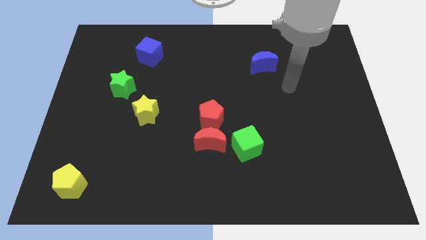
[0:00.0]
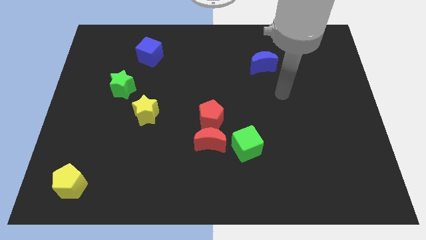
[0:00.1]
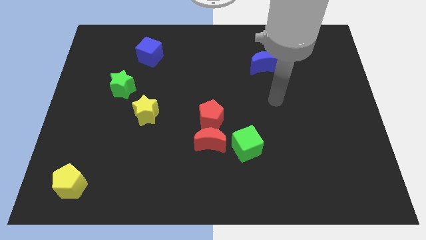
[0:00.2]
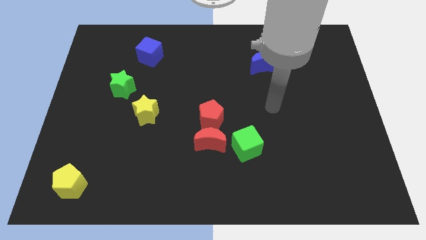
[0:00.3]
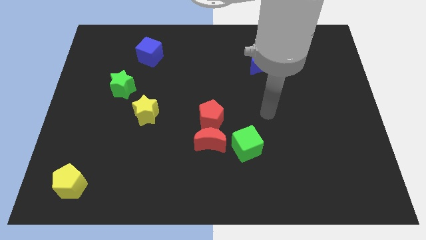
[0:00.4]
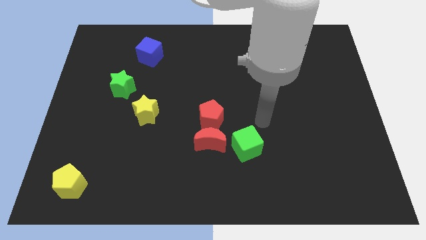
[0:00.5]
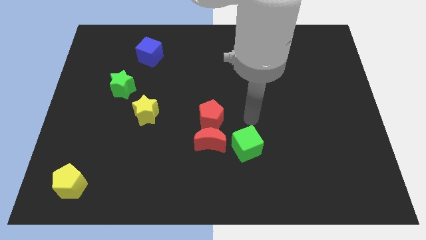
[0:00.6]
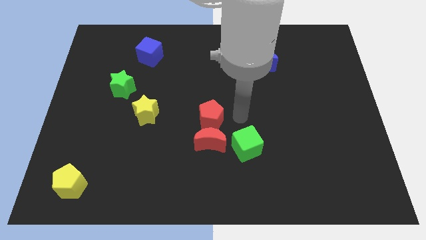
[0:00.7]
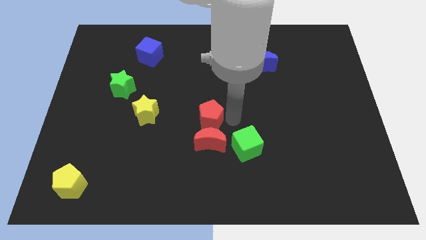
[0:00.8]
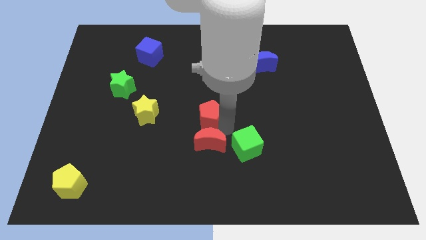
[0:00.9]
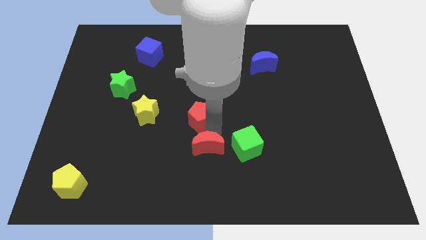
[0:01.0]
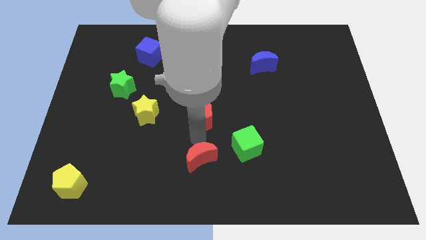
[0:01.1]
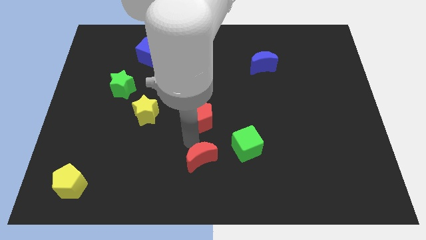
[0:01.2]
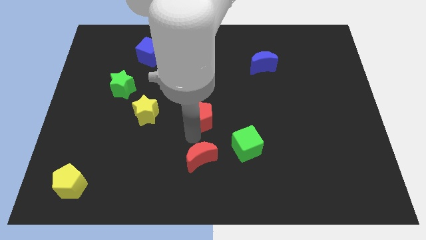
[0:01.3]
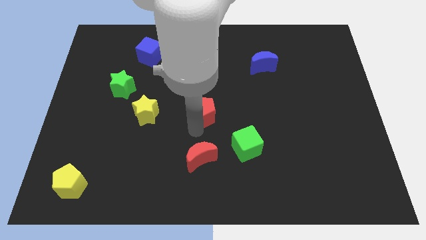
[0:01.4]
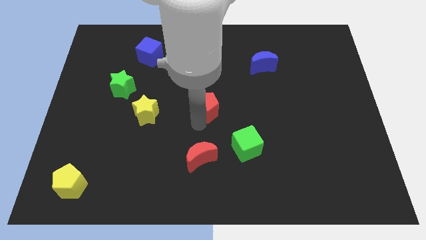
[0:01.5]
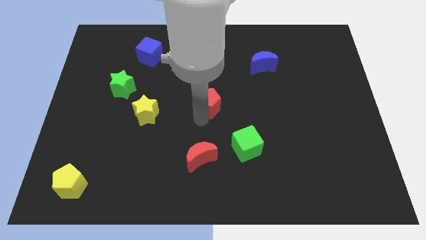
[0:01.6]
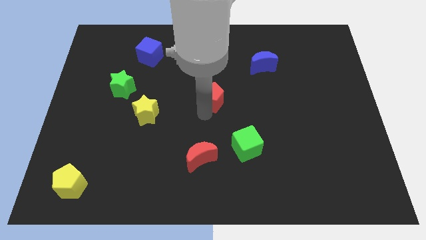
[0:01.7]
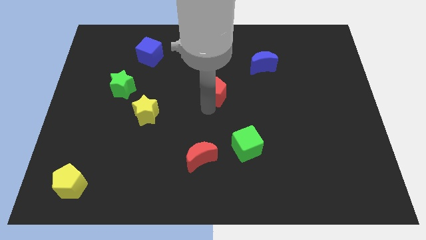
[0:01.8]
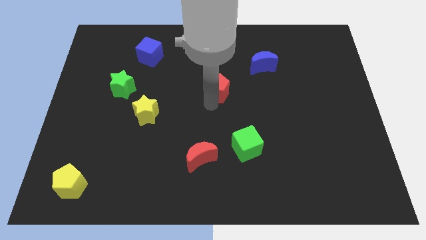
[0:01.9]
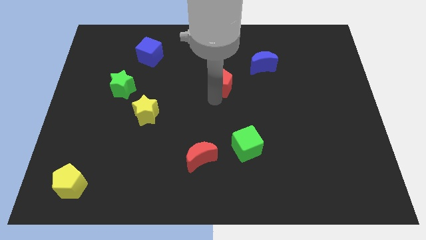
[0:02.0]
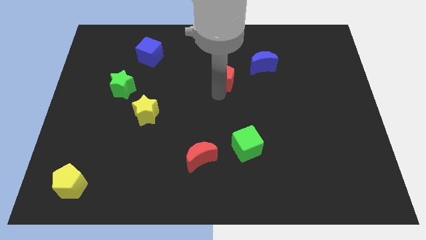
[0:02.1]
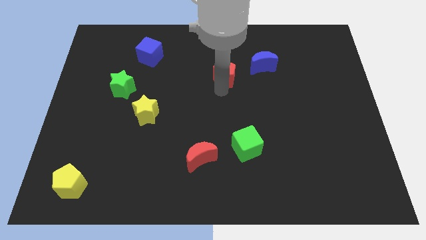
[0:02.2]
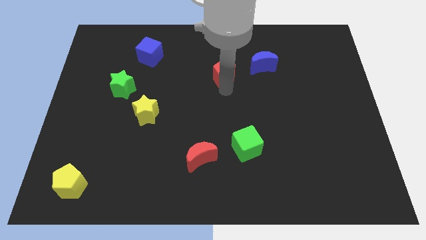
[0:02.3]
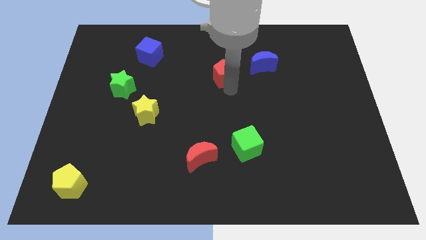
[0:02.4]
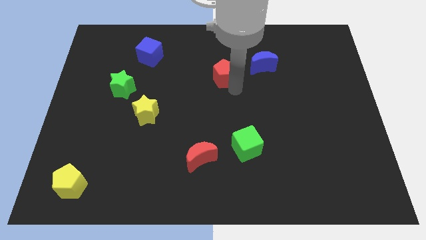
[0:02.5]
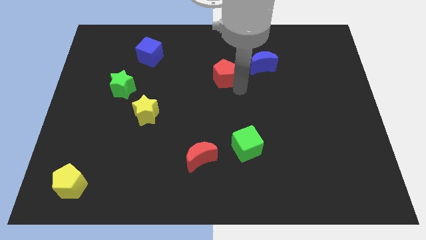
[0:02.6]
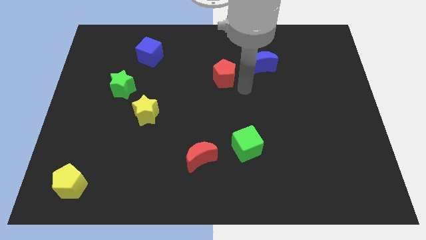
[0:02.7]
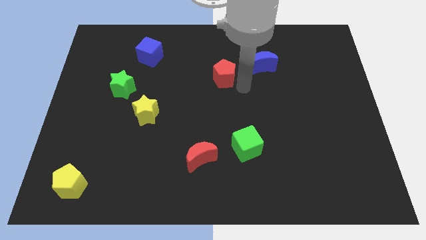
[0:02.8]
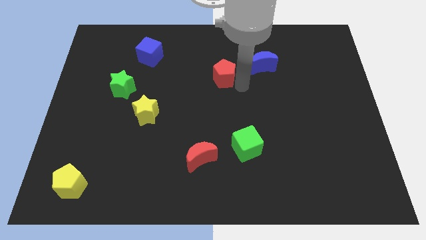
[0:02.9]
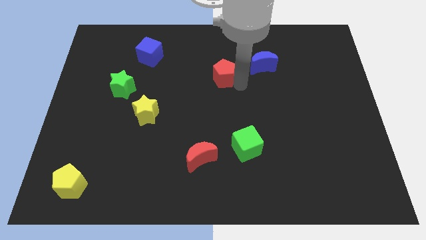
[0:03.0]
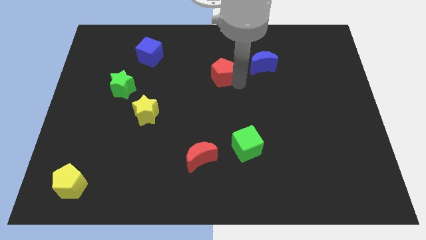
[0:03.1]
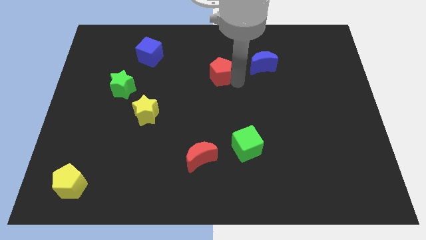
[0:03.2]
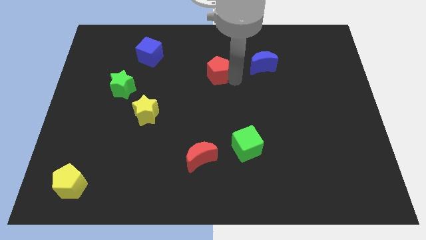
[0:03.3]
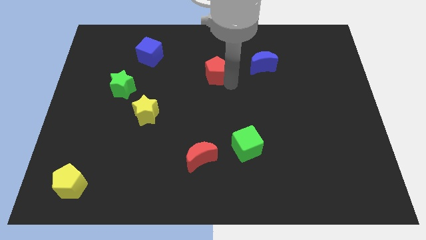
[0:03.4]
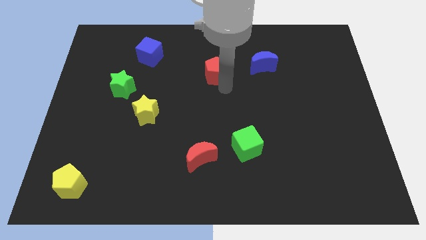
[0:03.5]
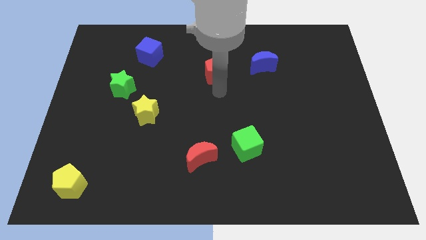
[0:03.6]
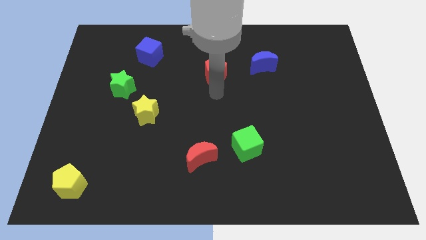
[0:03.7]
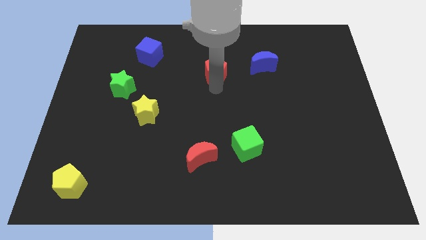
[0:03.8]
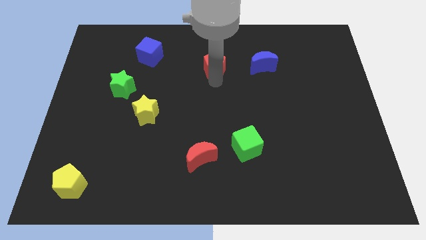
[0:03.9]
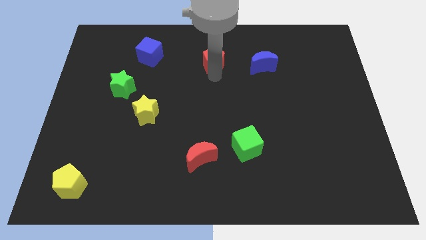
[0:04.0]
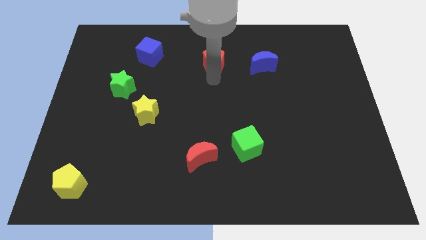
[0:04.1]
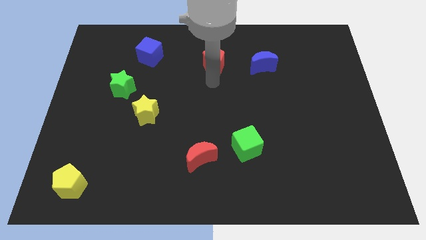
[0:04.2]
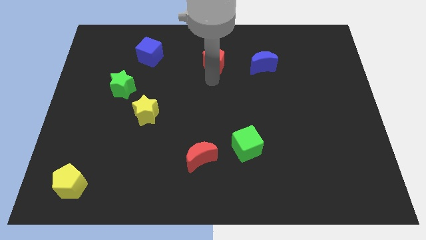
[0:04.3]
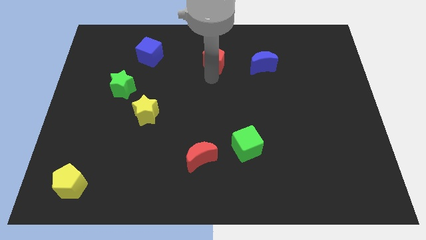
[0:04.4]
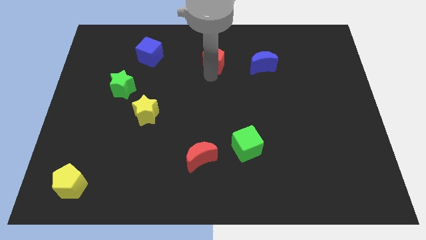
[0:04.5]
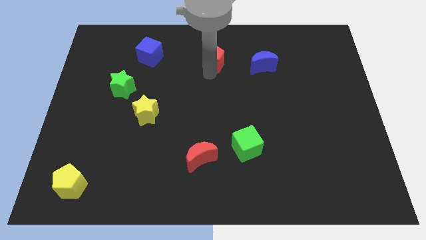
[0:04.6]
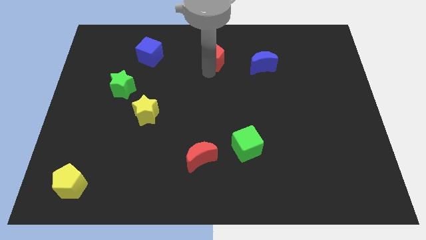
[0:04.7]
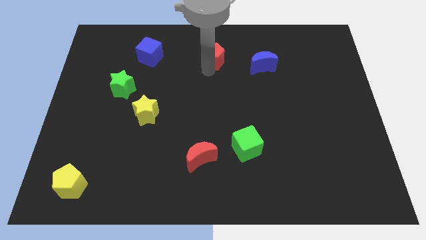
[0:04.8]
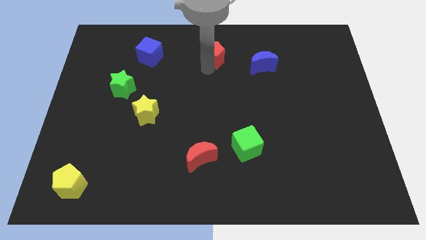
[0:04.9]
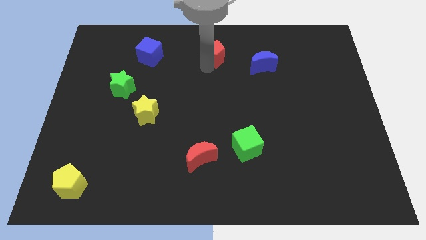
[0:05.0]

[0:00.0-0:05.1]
push the red pentagon to the top

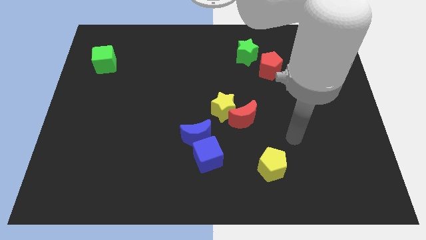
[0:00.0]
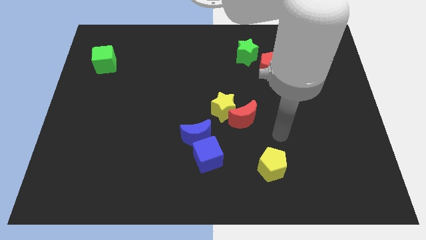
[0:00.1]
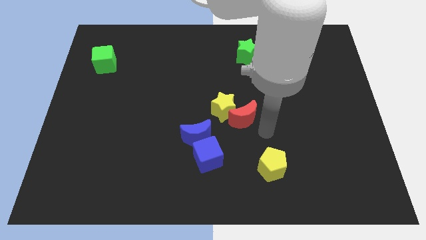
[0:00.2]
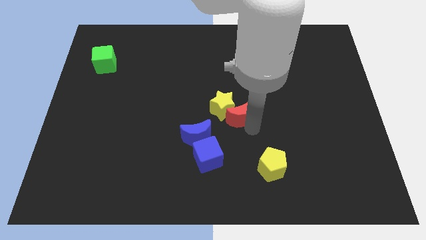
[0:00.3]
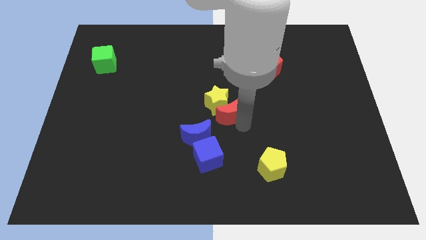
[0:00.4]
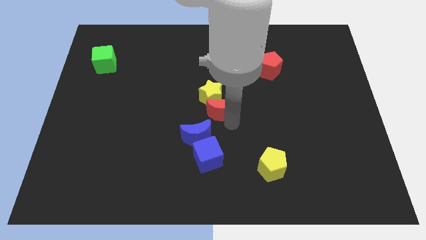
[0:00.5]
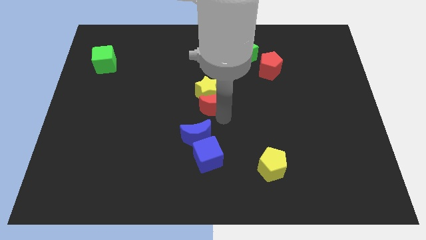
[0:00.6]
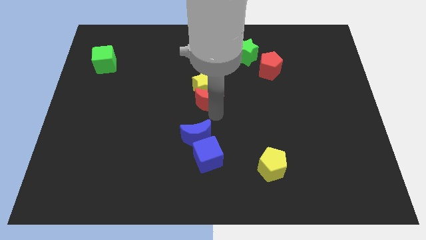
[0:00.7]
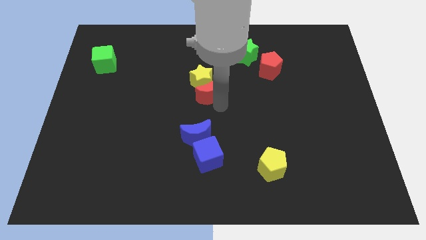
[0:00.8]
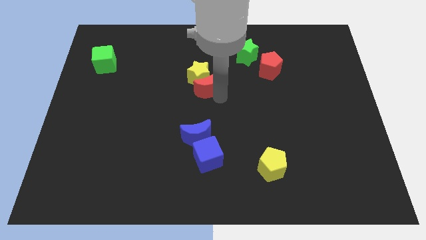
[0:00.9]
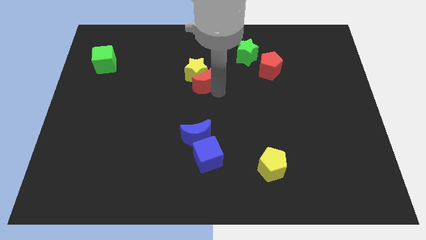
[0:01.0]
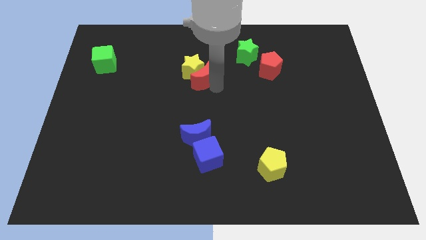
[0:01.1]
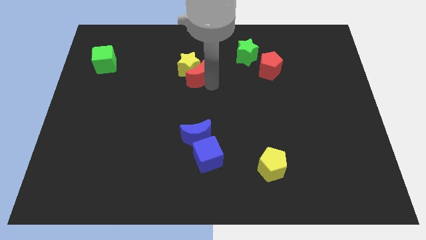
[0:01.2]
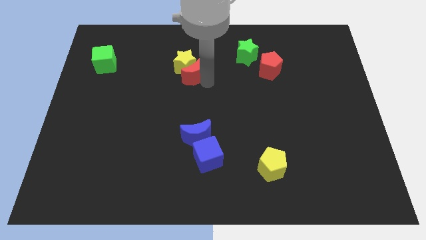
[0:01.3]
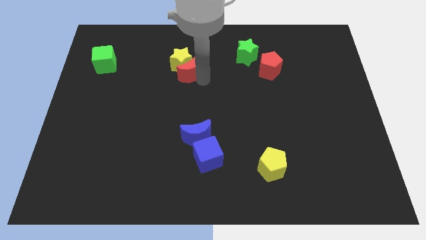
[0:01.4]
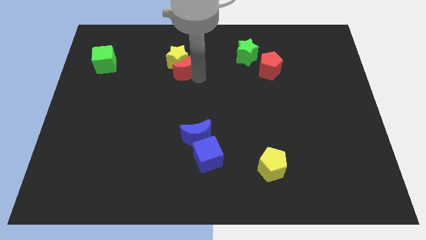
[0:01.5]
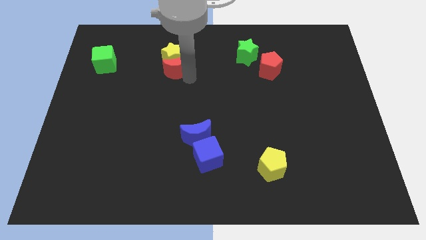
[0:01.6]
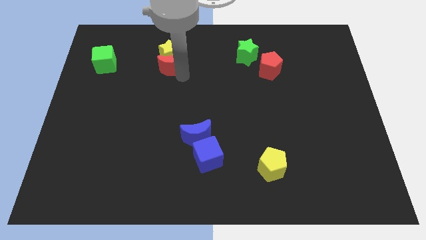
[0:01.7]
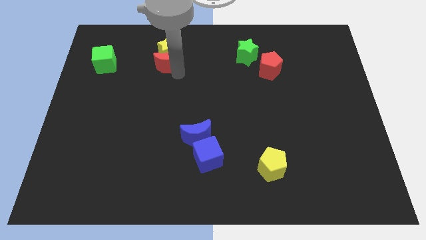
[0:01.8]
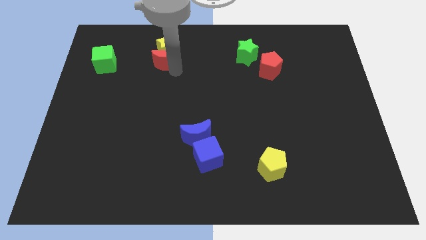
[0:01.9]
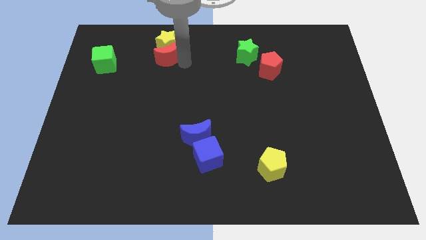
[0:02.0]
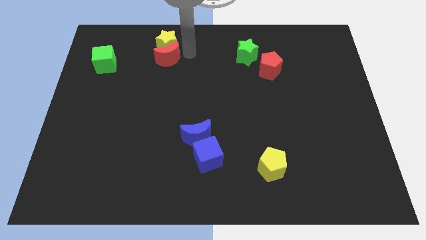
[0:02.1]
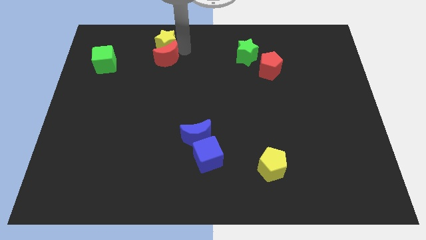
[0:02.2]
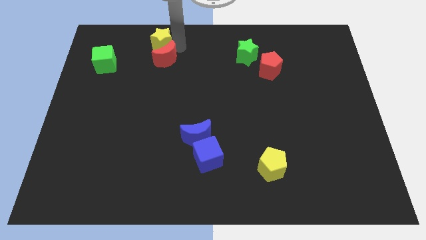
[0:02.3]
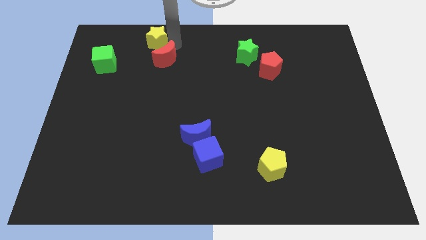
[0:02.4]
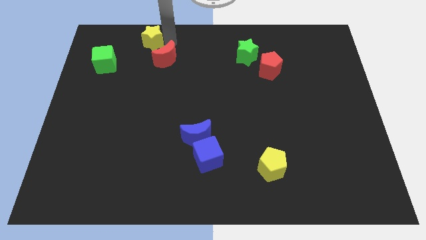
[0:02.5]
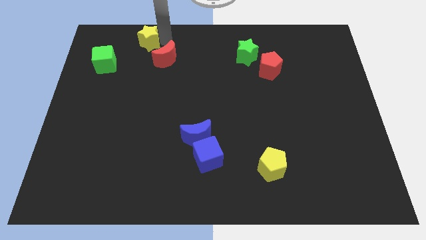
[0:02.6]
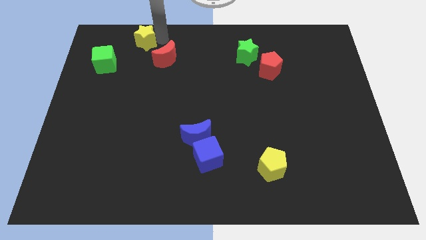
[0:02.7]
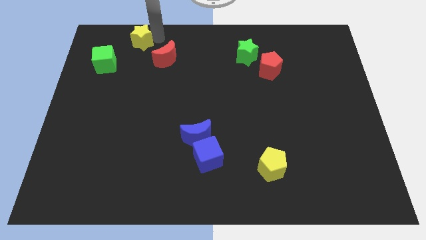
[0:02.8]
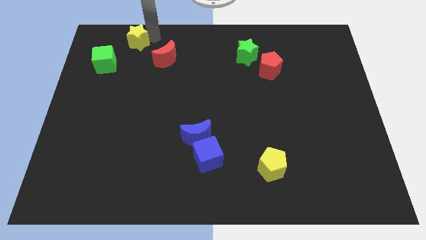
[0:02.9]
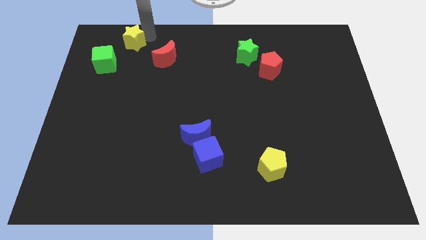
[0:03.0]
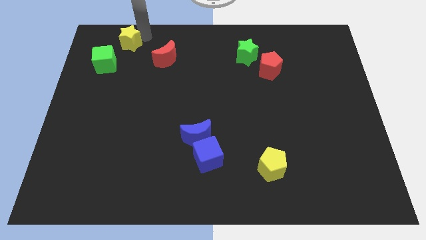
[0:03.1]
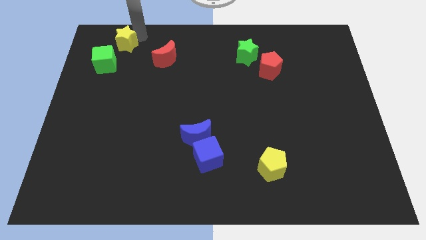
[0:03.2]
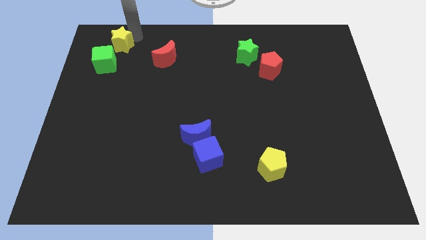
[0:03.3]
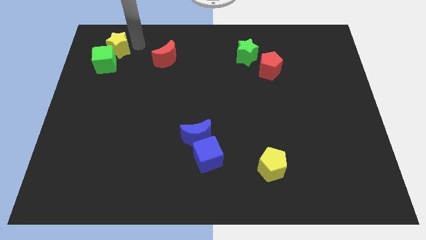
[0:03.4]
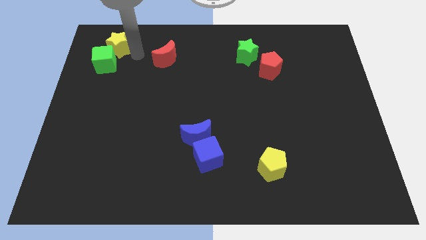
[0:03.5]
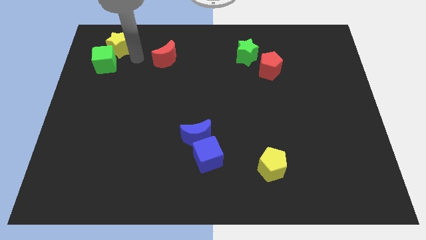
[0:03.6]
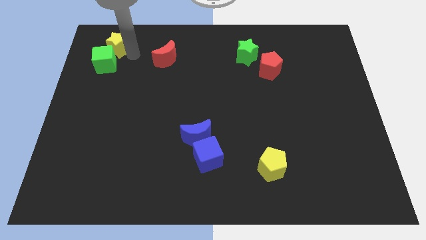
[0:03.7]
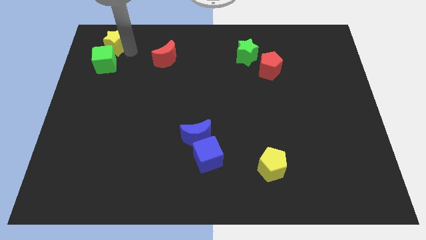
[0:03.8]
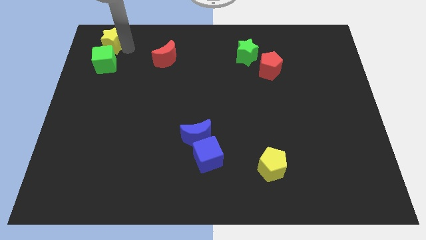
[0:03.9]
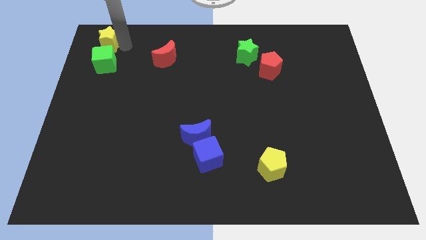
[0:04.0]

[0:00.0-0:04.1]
slide the yellow star to the top left corner
